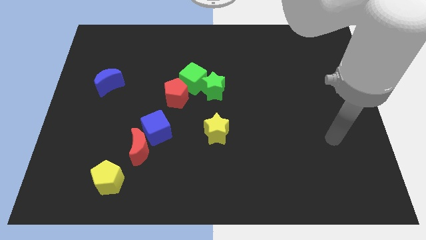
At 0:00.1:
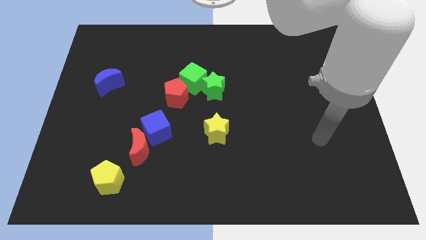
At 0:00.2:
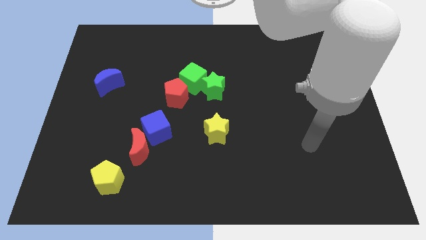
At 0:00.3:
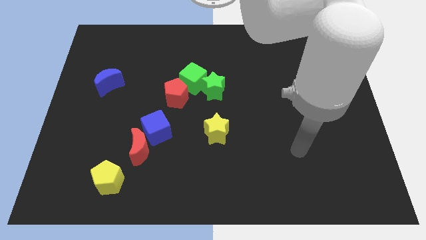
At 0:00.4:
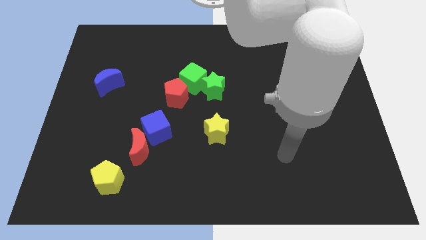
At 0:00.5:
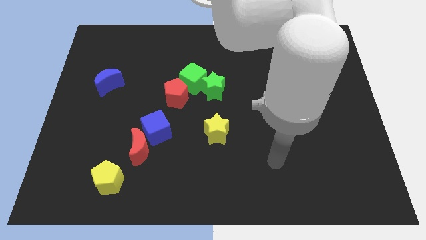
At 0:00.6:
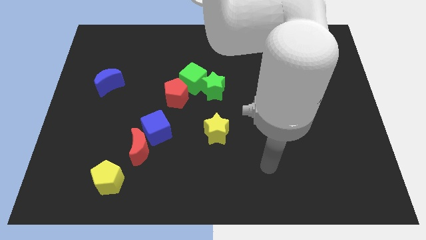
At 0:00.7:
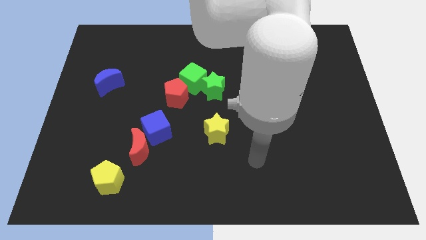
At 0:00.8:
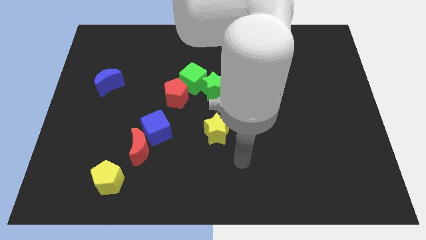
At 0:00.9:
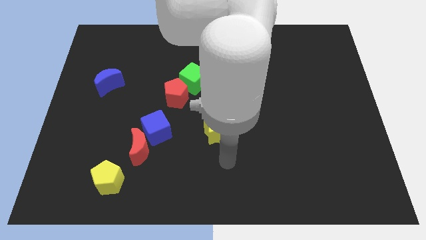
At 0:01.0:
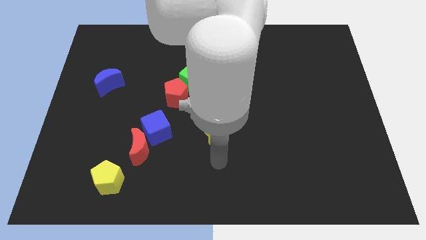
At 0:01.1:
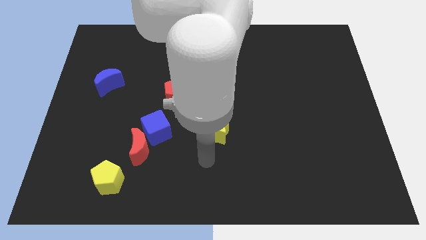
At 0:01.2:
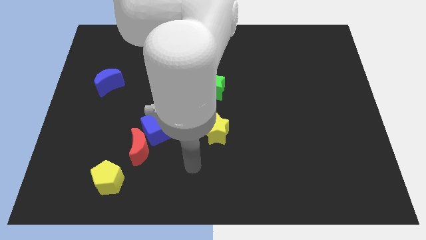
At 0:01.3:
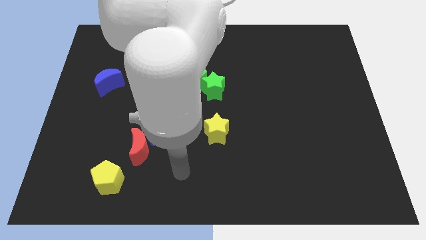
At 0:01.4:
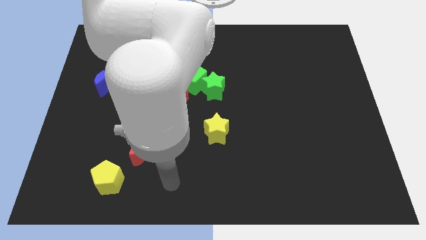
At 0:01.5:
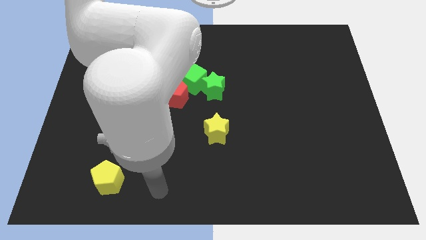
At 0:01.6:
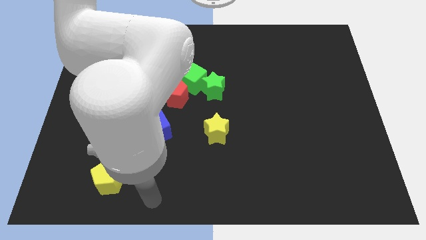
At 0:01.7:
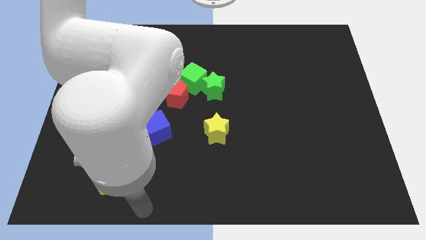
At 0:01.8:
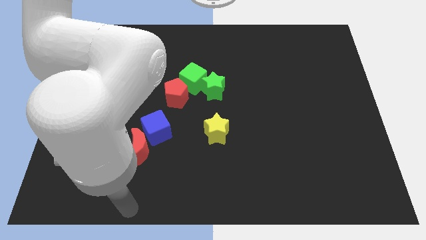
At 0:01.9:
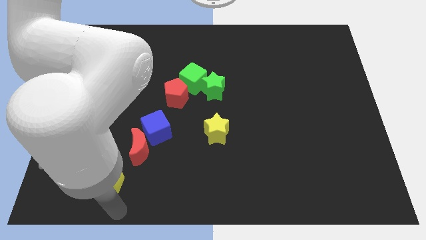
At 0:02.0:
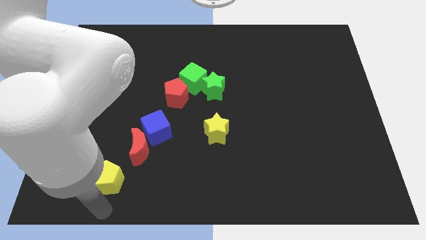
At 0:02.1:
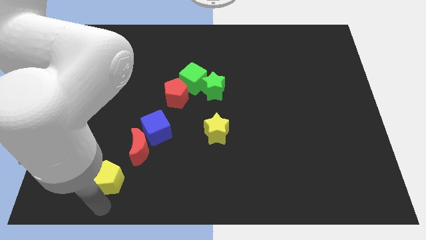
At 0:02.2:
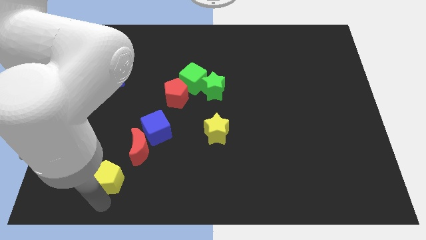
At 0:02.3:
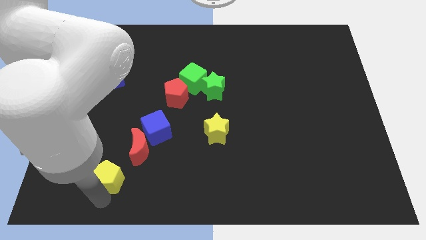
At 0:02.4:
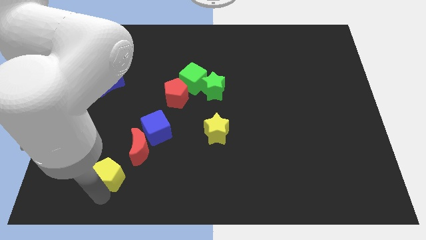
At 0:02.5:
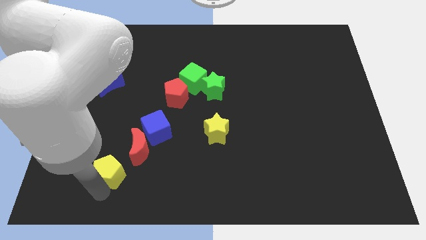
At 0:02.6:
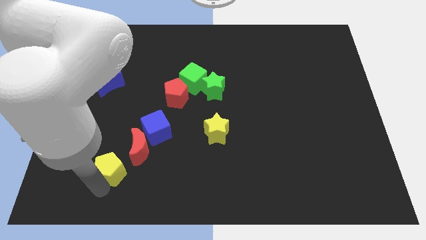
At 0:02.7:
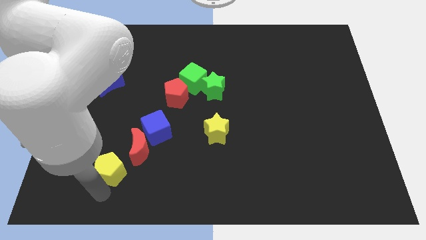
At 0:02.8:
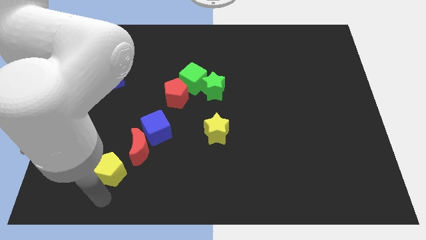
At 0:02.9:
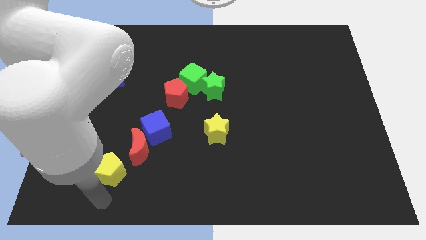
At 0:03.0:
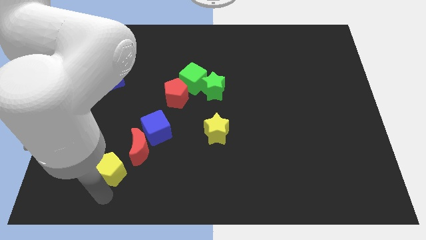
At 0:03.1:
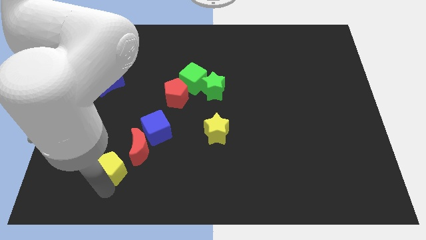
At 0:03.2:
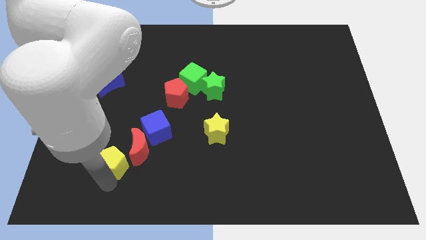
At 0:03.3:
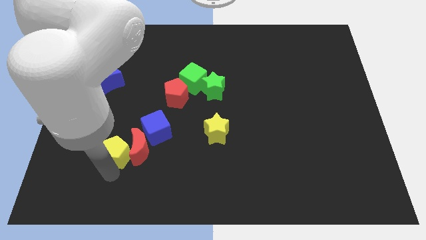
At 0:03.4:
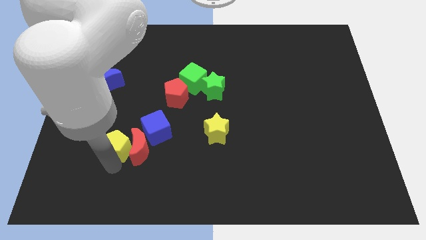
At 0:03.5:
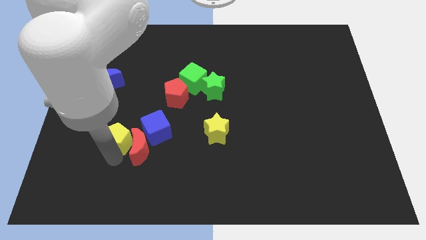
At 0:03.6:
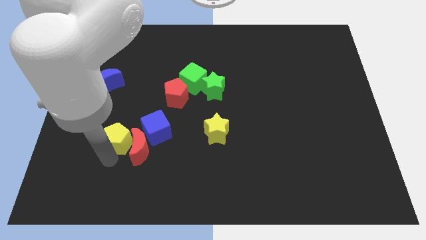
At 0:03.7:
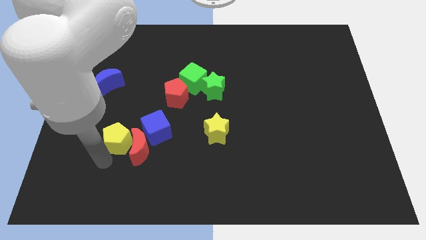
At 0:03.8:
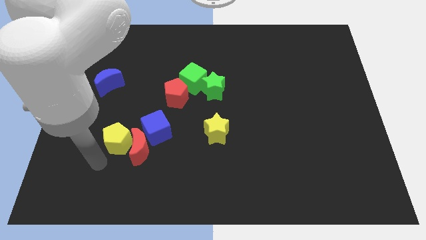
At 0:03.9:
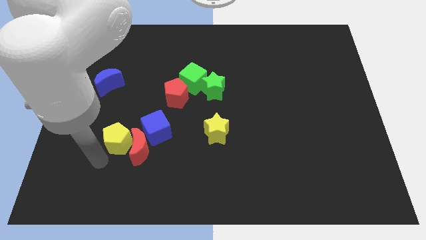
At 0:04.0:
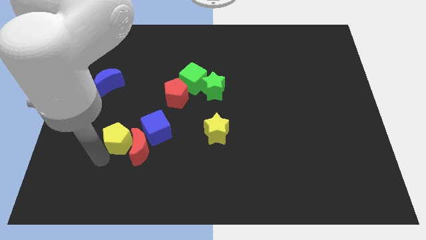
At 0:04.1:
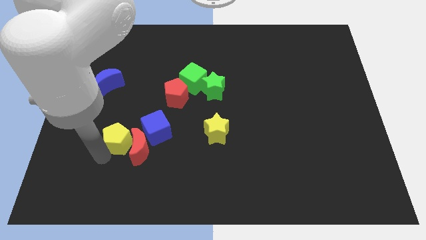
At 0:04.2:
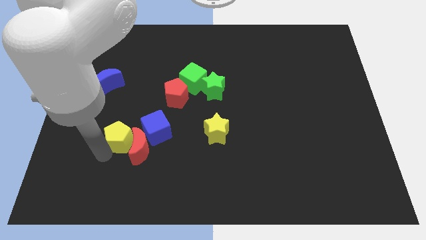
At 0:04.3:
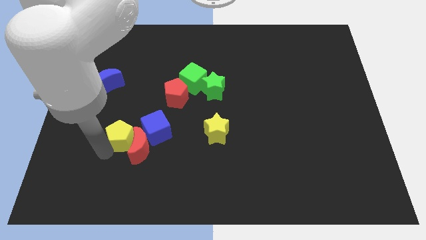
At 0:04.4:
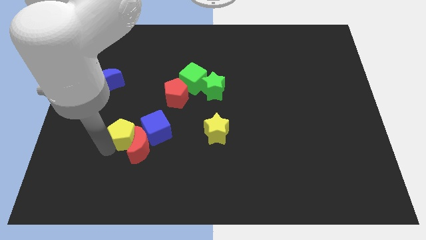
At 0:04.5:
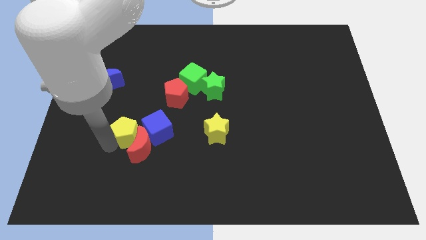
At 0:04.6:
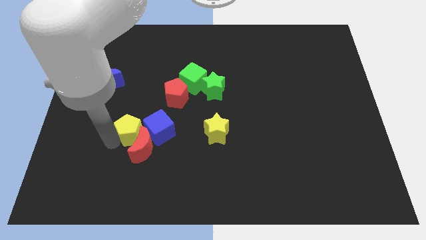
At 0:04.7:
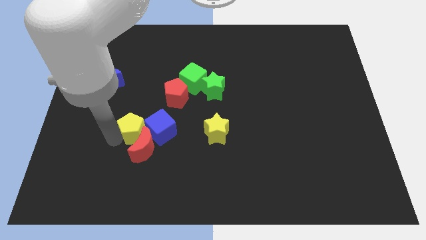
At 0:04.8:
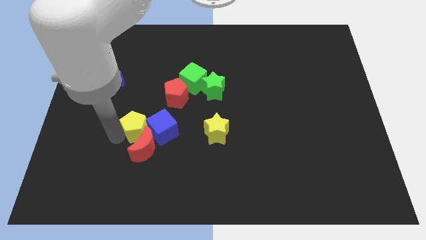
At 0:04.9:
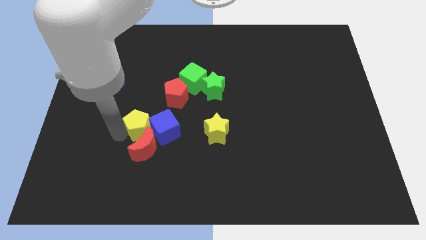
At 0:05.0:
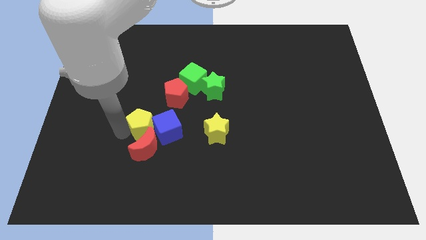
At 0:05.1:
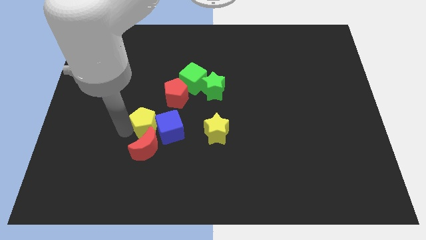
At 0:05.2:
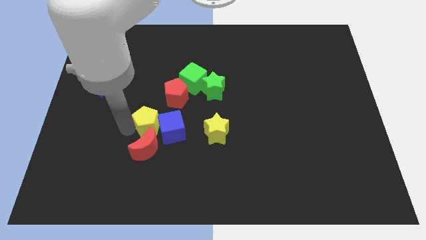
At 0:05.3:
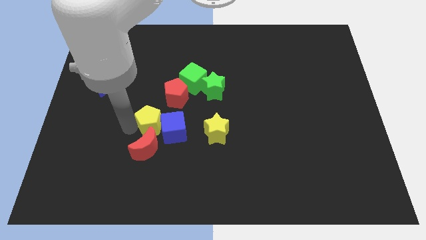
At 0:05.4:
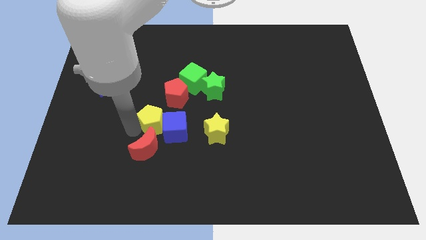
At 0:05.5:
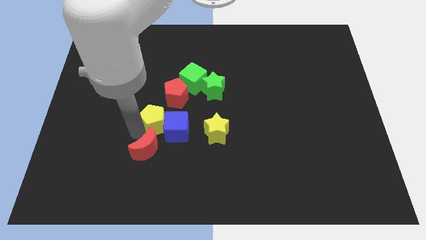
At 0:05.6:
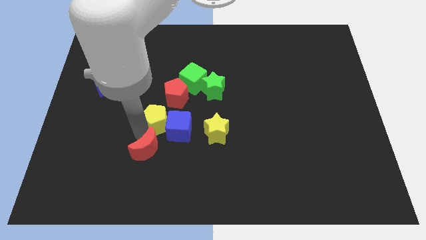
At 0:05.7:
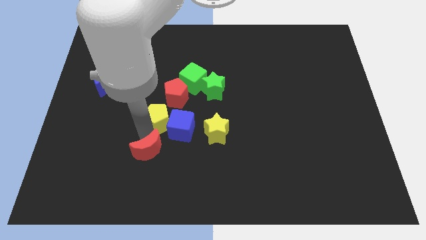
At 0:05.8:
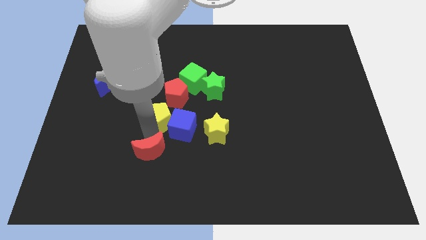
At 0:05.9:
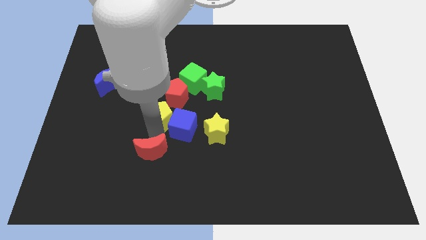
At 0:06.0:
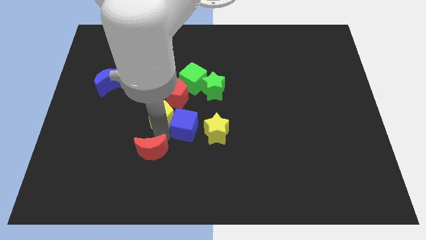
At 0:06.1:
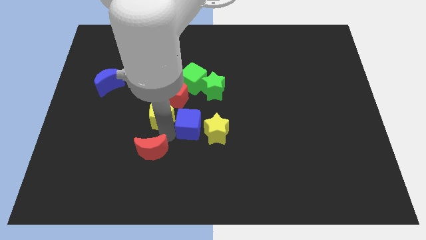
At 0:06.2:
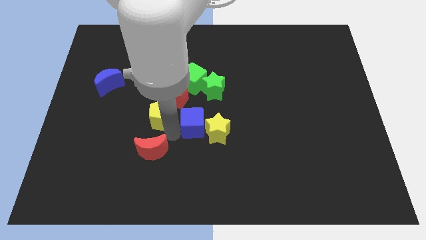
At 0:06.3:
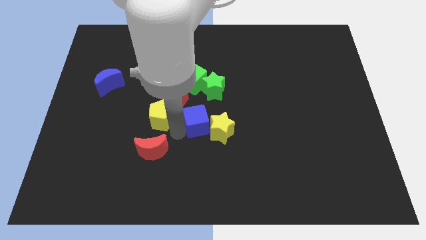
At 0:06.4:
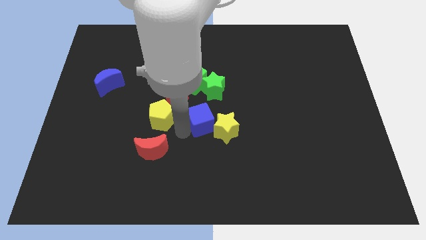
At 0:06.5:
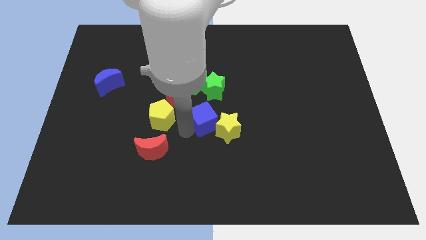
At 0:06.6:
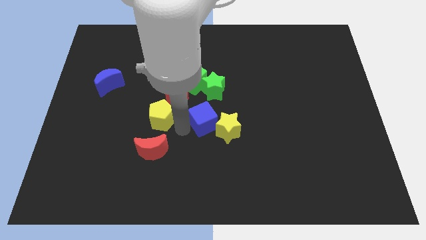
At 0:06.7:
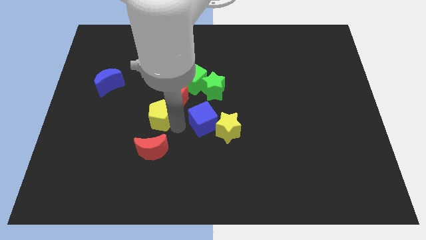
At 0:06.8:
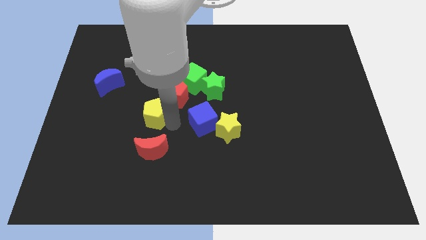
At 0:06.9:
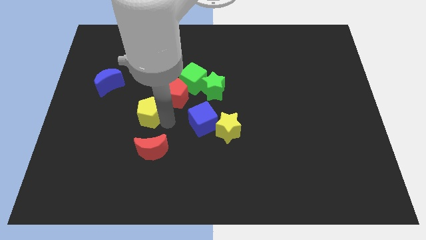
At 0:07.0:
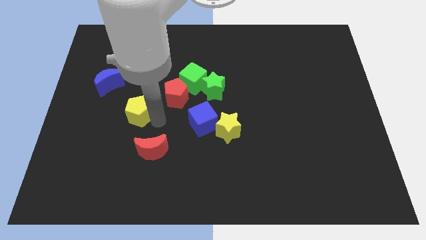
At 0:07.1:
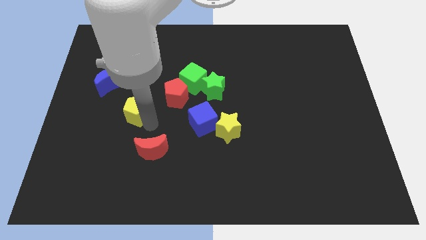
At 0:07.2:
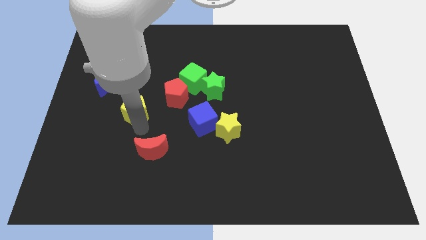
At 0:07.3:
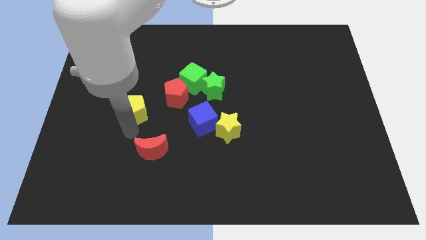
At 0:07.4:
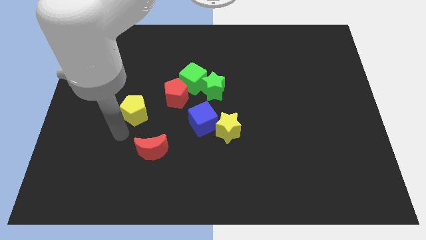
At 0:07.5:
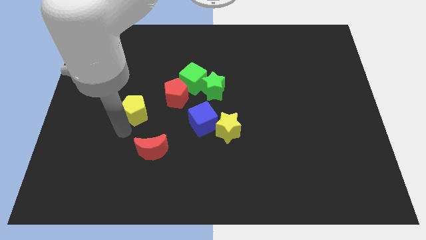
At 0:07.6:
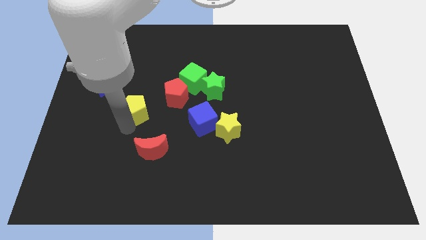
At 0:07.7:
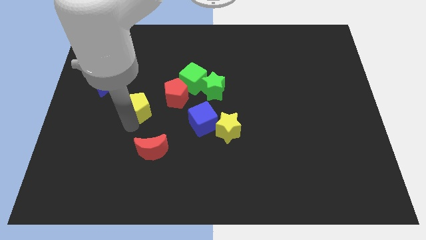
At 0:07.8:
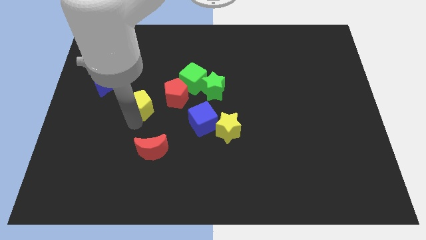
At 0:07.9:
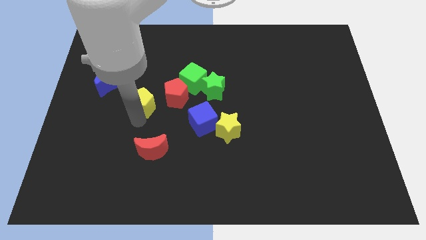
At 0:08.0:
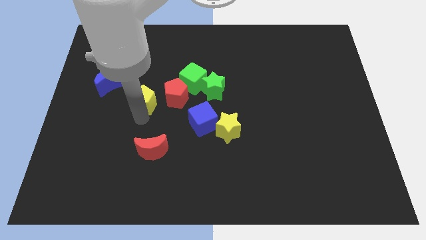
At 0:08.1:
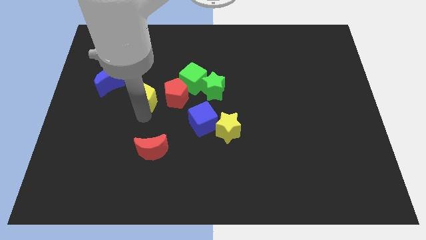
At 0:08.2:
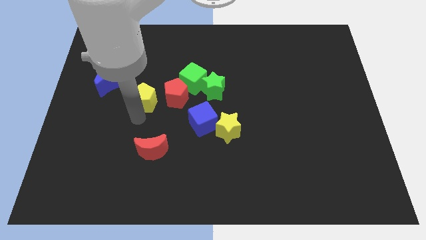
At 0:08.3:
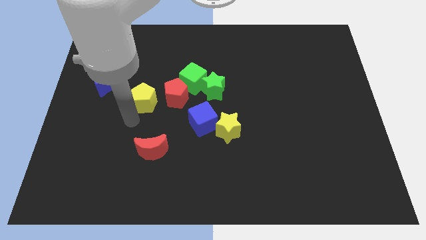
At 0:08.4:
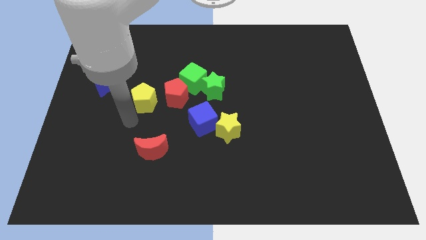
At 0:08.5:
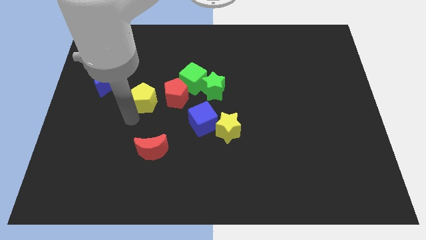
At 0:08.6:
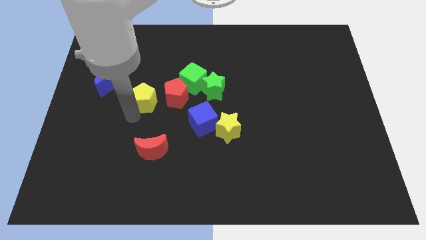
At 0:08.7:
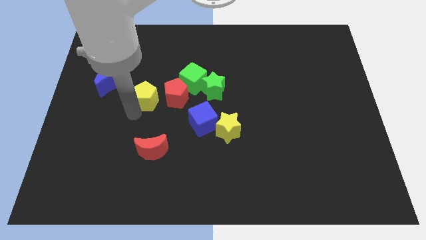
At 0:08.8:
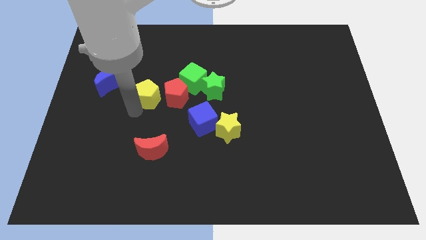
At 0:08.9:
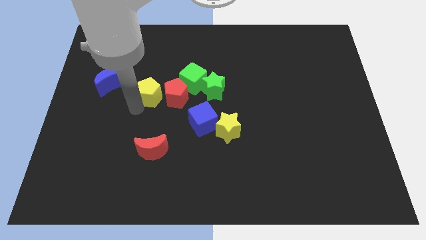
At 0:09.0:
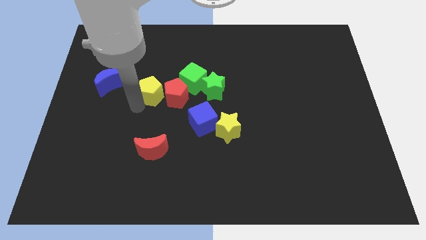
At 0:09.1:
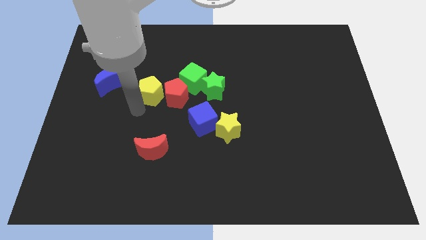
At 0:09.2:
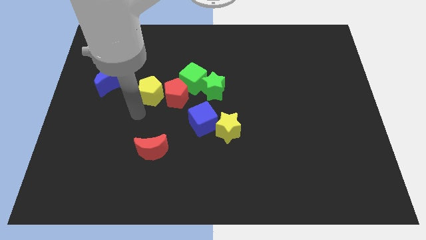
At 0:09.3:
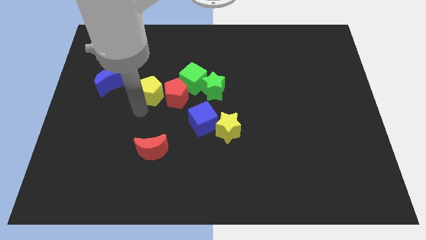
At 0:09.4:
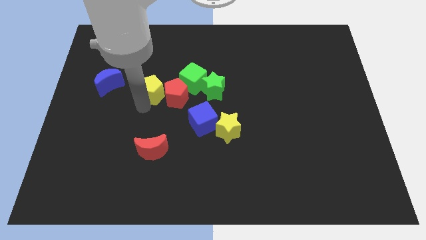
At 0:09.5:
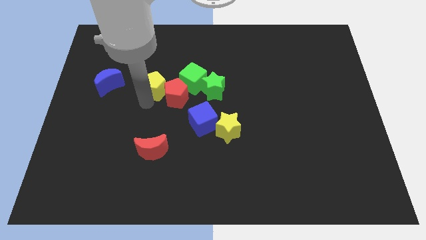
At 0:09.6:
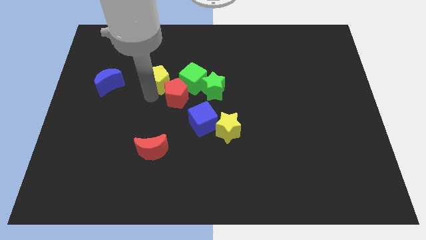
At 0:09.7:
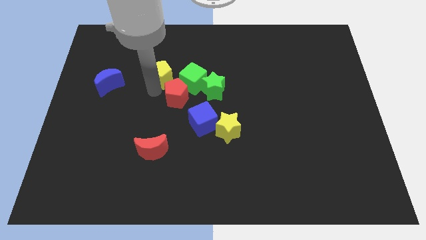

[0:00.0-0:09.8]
move the yellow pentagon diagonally up and to the left of the green cube
